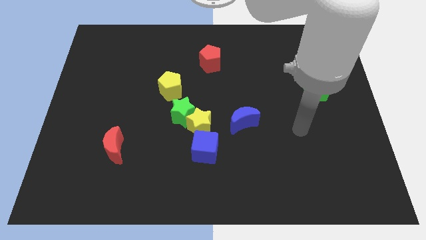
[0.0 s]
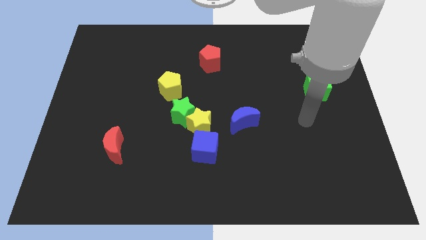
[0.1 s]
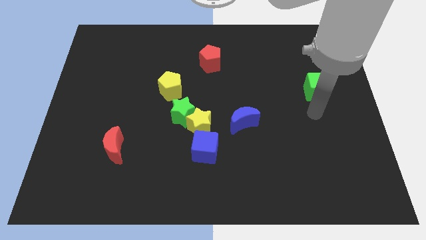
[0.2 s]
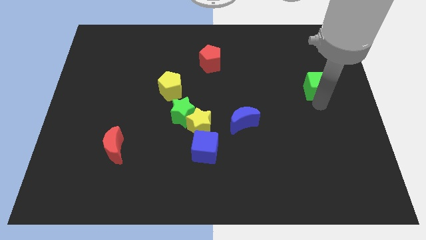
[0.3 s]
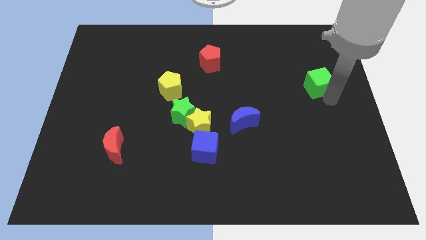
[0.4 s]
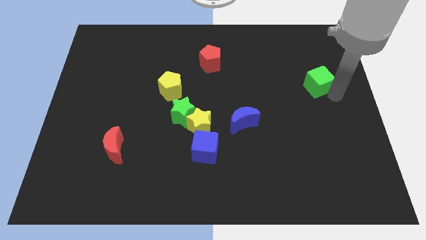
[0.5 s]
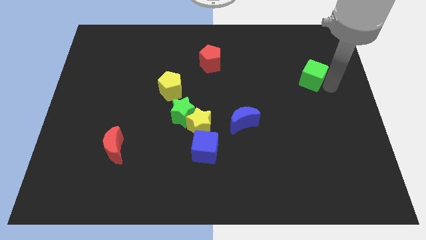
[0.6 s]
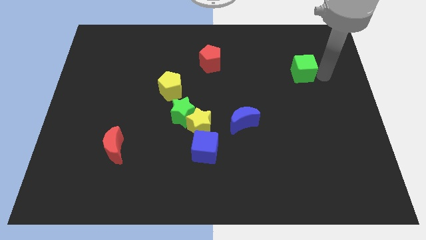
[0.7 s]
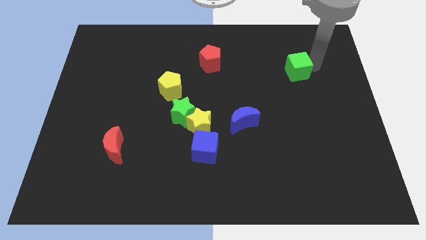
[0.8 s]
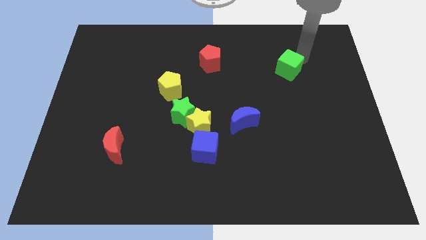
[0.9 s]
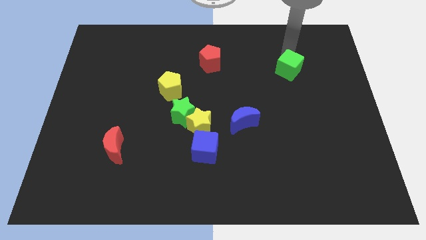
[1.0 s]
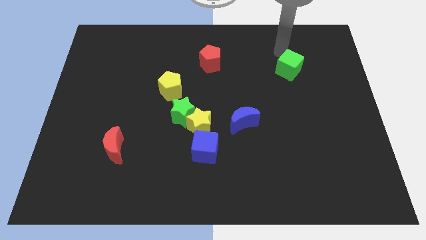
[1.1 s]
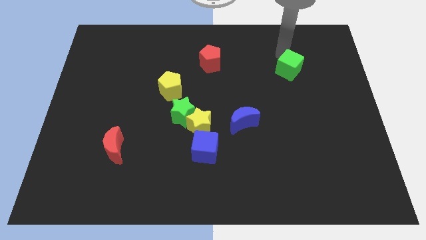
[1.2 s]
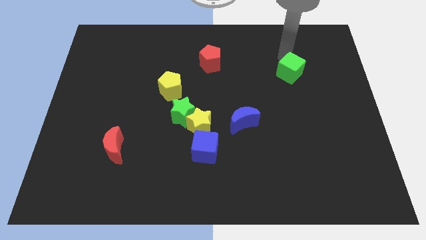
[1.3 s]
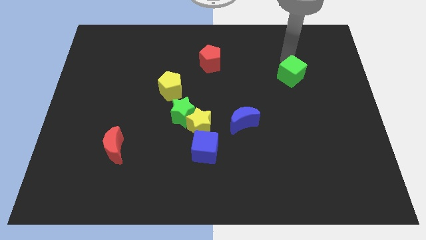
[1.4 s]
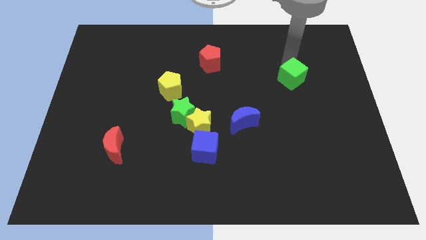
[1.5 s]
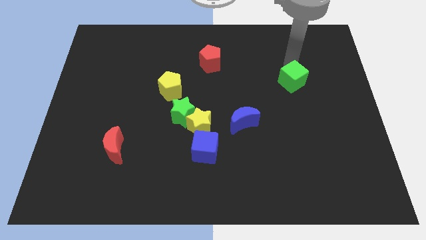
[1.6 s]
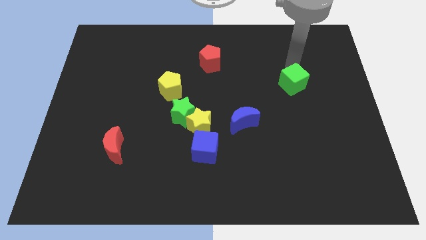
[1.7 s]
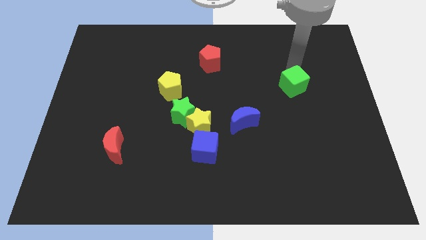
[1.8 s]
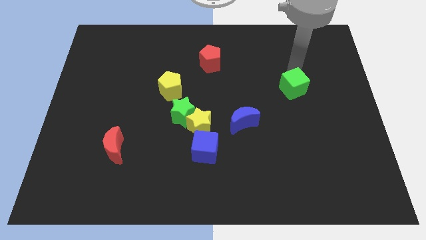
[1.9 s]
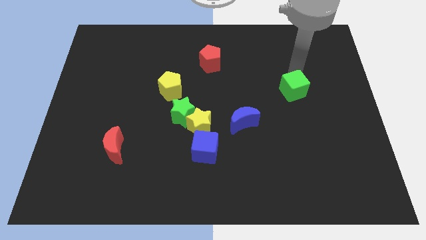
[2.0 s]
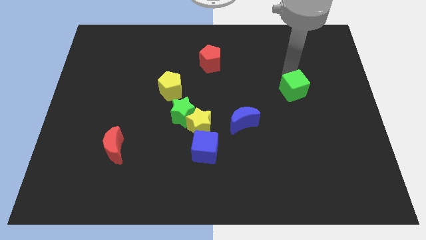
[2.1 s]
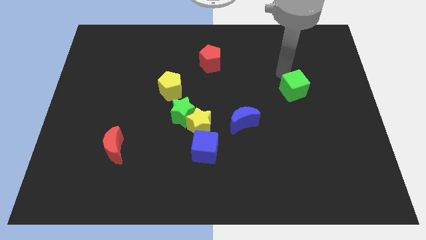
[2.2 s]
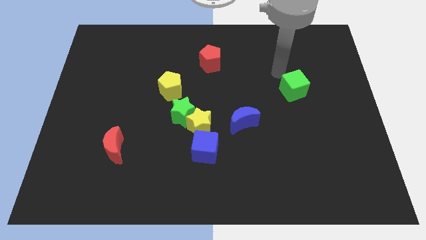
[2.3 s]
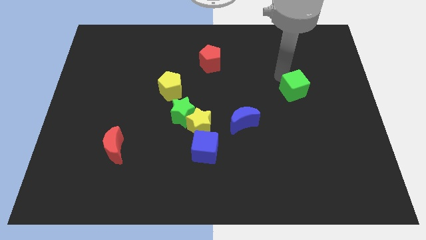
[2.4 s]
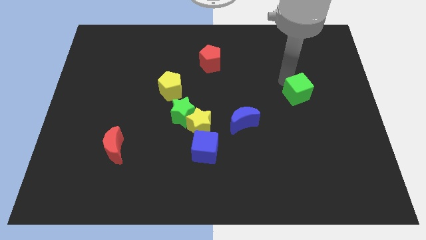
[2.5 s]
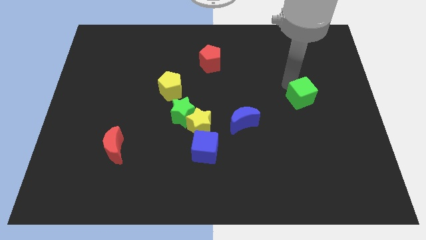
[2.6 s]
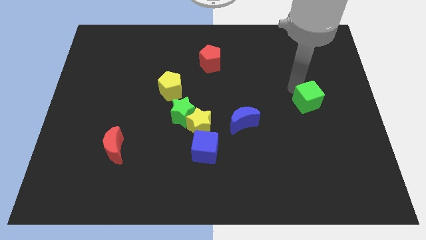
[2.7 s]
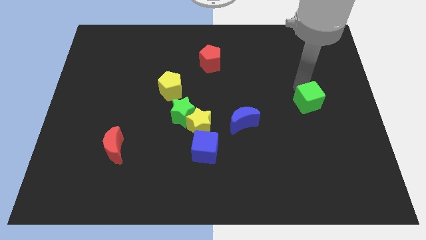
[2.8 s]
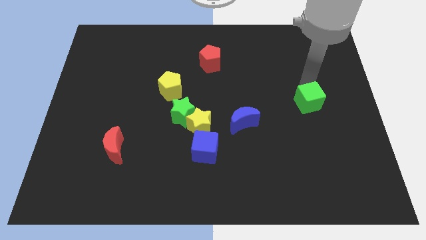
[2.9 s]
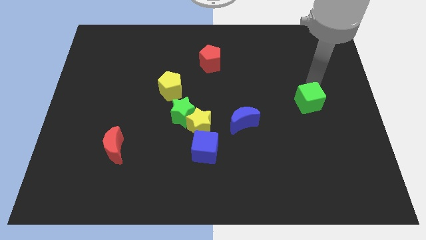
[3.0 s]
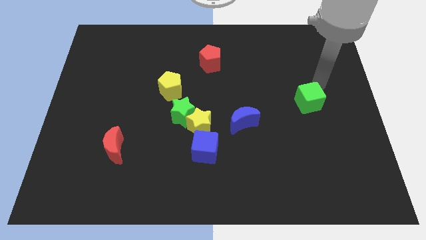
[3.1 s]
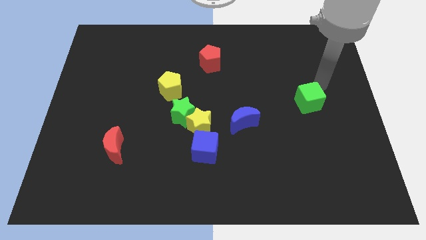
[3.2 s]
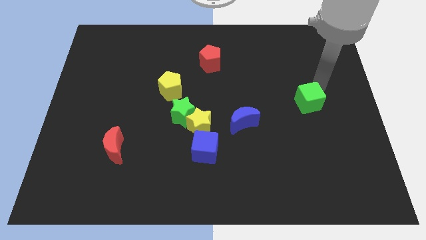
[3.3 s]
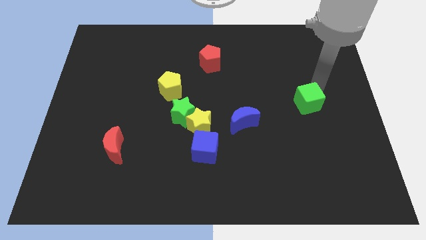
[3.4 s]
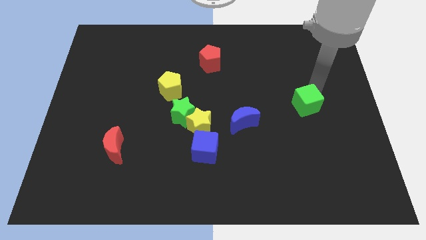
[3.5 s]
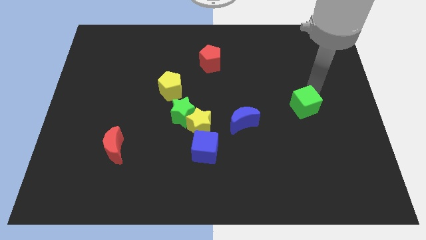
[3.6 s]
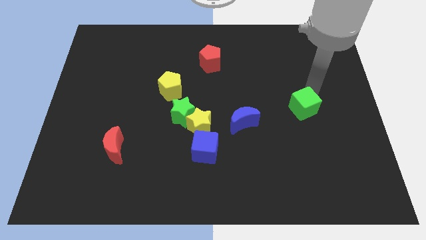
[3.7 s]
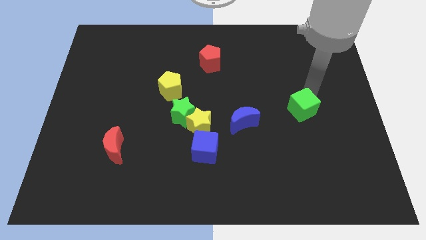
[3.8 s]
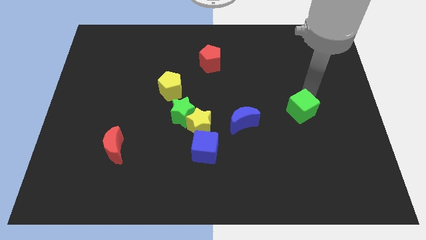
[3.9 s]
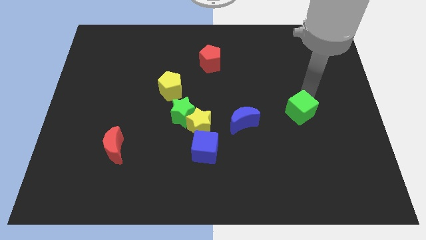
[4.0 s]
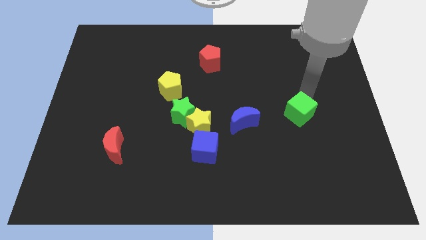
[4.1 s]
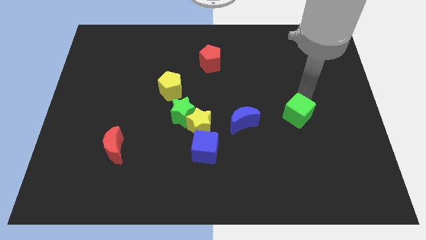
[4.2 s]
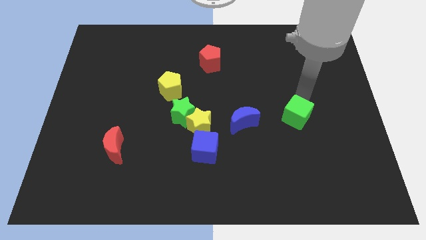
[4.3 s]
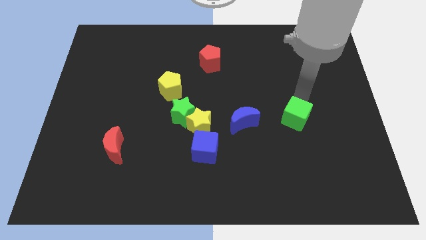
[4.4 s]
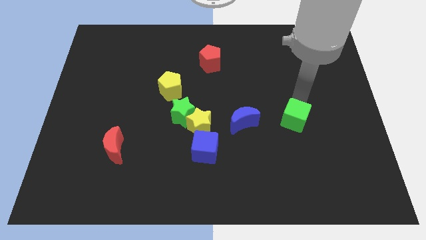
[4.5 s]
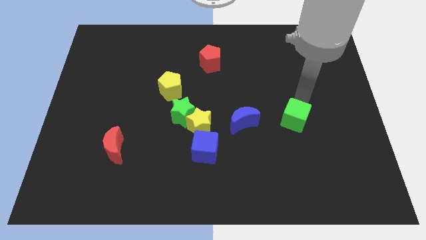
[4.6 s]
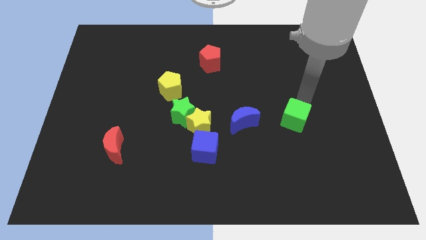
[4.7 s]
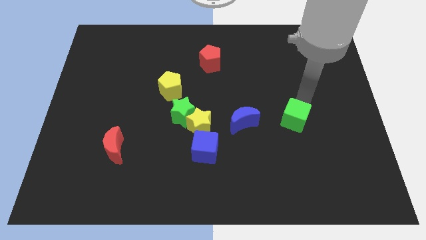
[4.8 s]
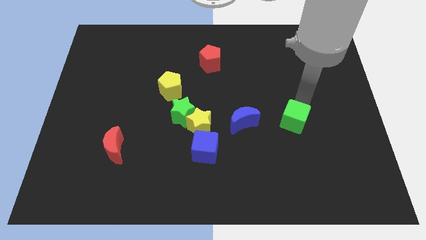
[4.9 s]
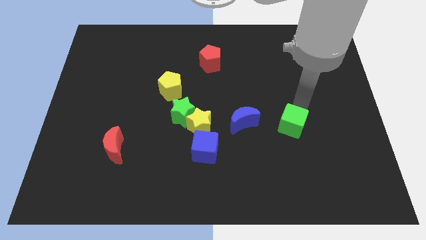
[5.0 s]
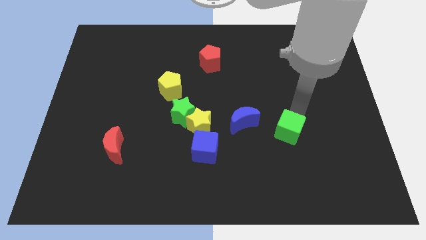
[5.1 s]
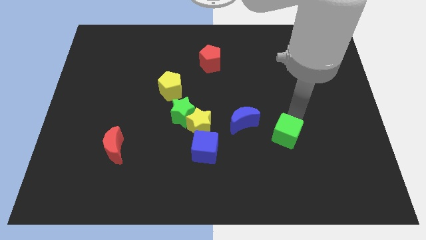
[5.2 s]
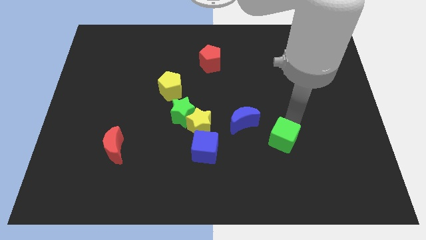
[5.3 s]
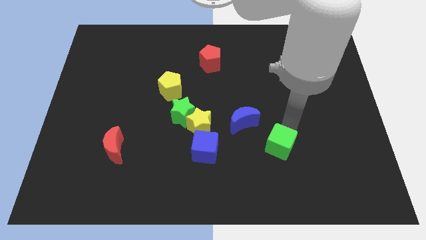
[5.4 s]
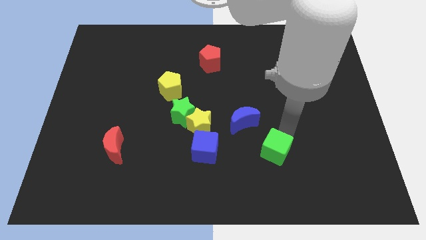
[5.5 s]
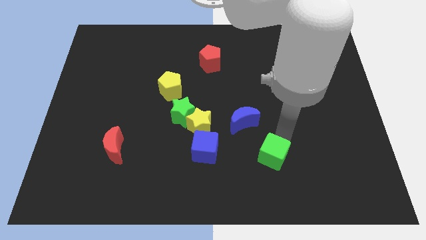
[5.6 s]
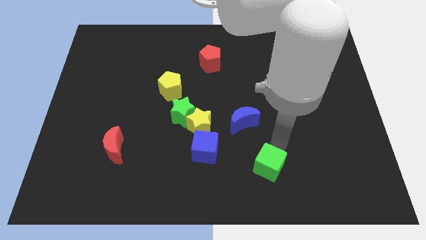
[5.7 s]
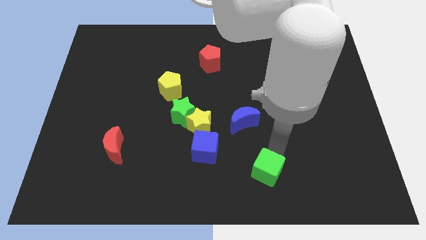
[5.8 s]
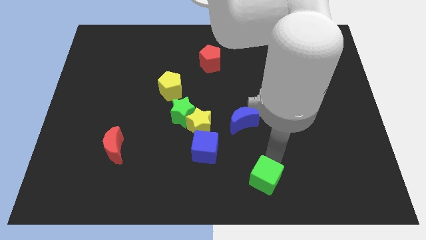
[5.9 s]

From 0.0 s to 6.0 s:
put the green cube to the bottom side

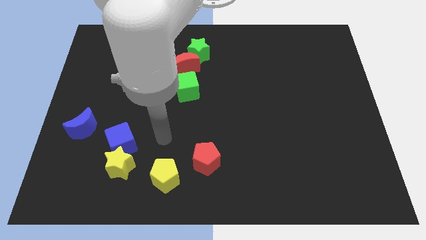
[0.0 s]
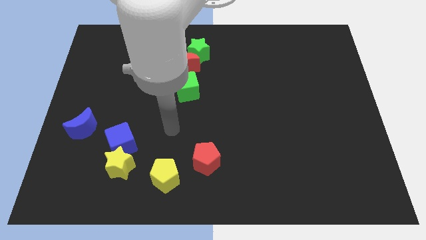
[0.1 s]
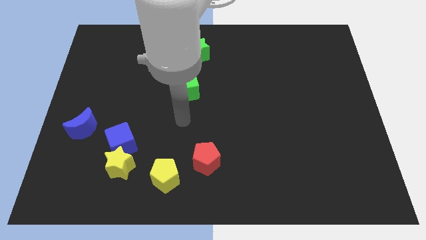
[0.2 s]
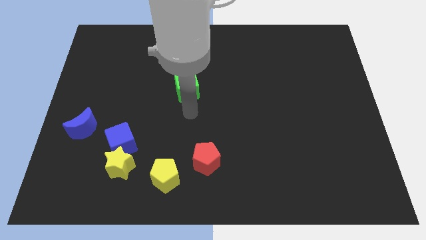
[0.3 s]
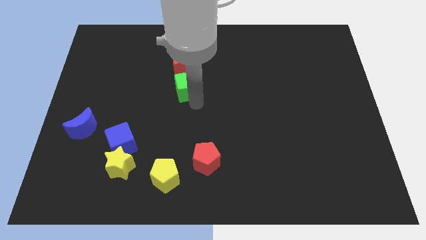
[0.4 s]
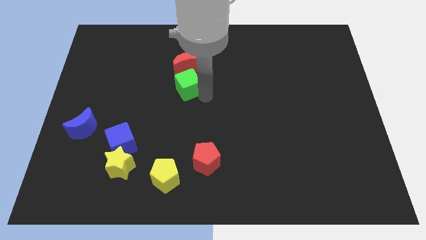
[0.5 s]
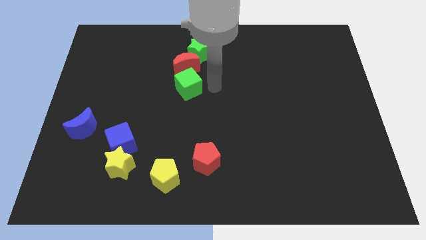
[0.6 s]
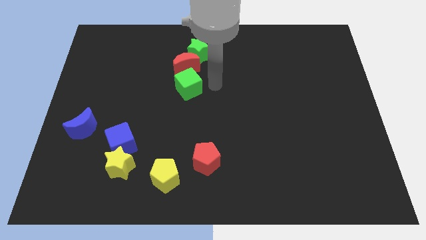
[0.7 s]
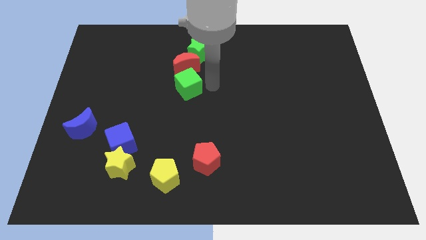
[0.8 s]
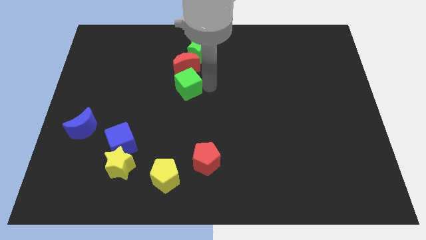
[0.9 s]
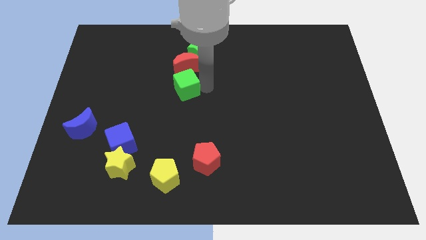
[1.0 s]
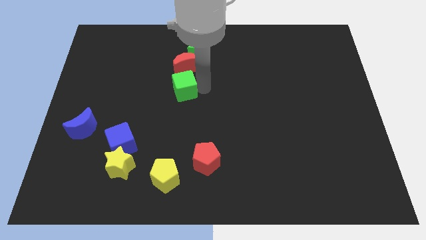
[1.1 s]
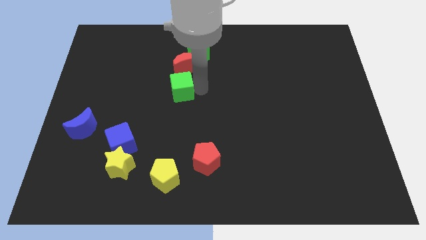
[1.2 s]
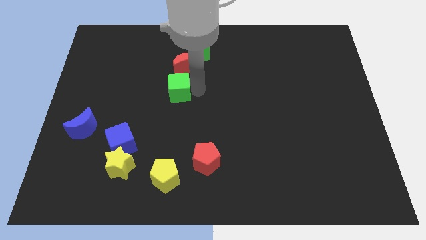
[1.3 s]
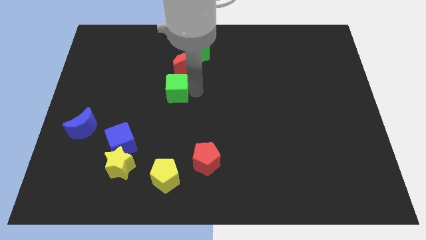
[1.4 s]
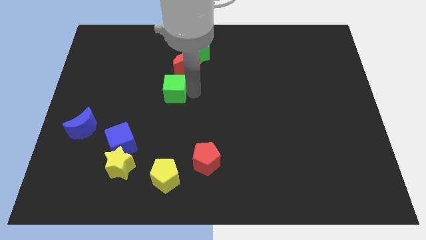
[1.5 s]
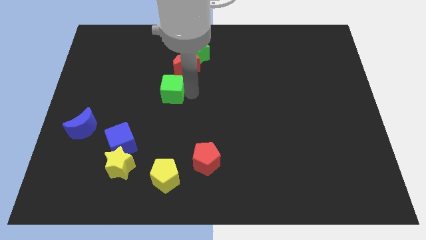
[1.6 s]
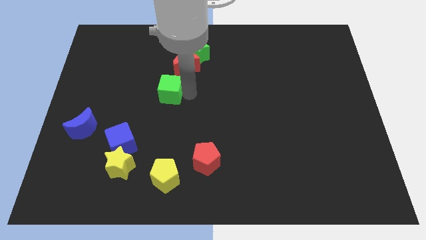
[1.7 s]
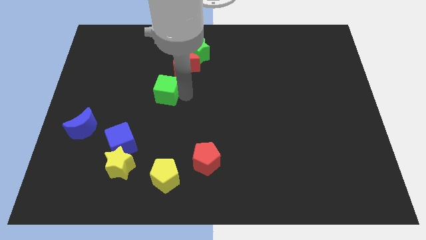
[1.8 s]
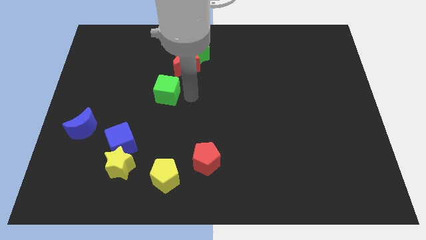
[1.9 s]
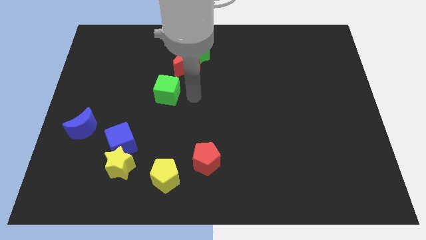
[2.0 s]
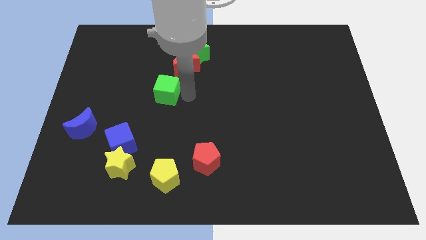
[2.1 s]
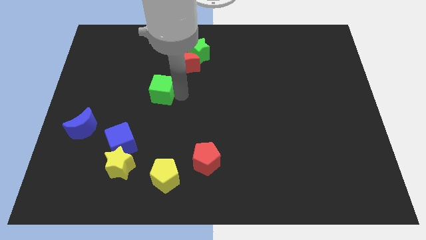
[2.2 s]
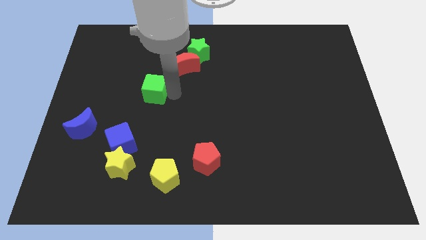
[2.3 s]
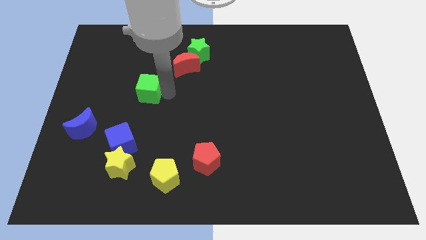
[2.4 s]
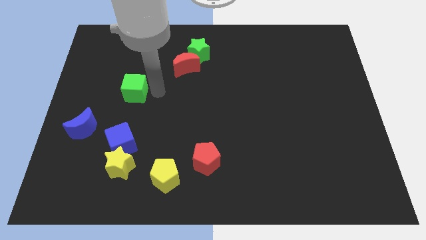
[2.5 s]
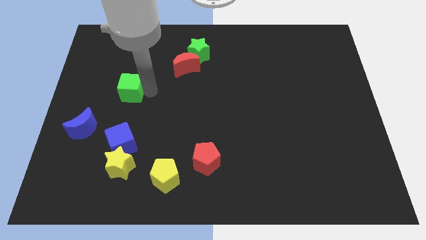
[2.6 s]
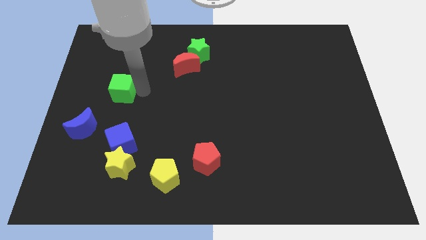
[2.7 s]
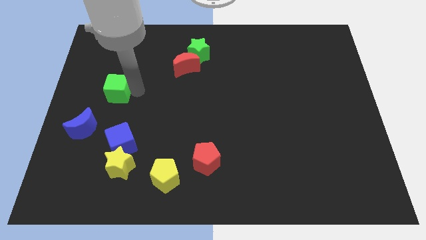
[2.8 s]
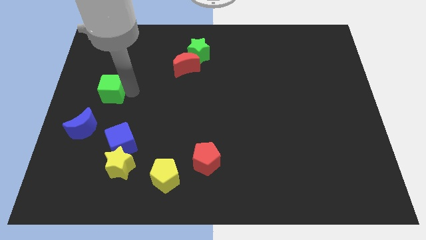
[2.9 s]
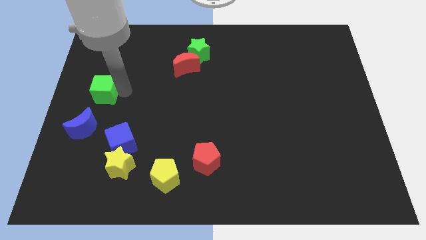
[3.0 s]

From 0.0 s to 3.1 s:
put the green cube to the left side
